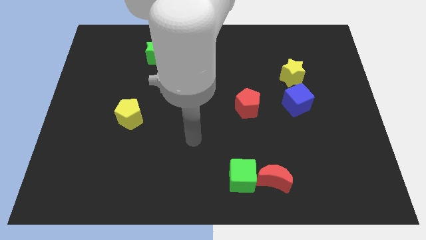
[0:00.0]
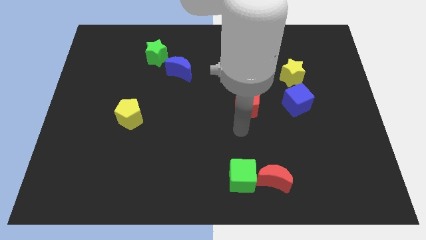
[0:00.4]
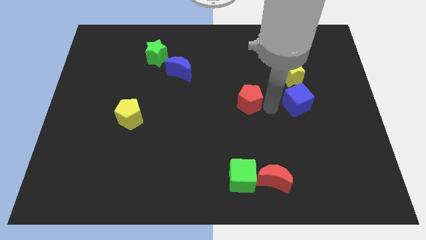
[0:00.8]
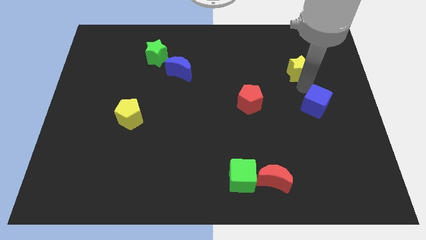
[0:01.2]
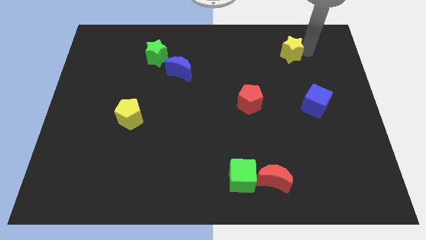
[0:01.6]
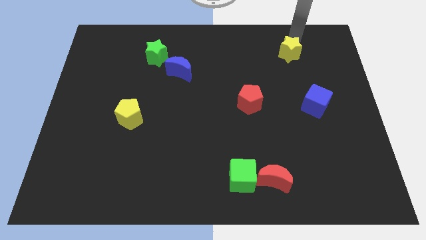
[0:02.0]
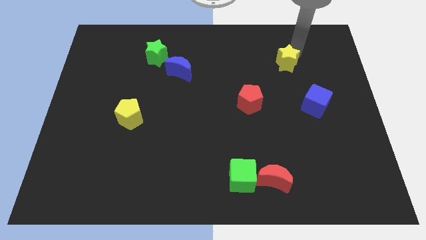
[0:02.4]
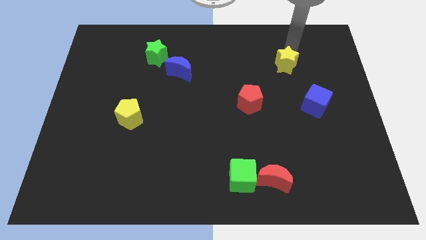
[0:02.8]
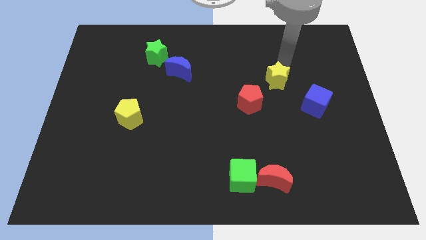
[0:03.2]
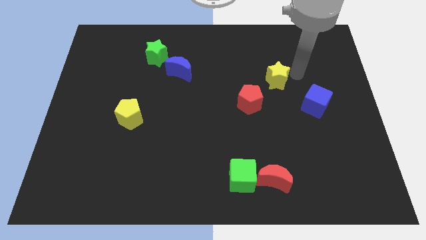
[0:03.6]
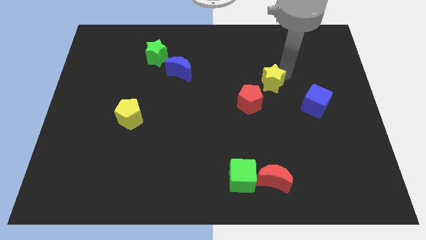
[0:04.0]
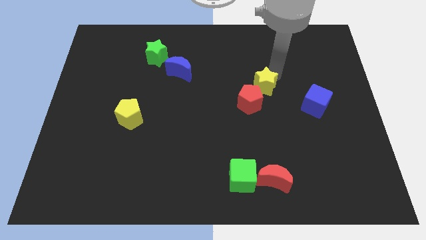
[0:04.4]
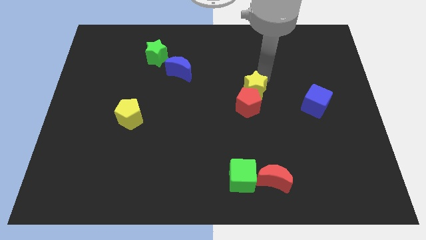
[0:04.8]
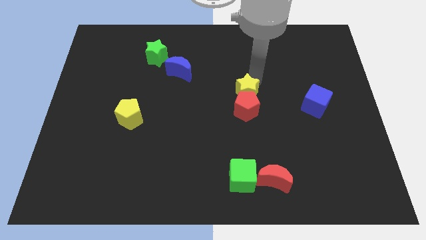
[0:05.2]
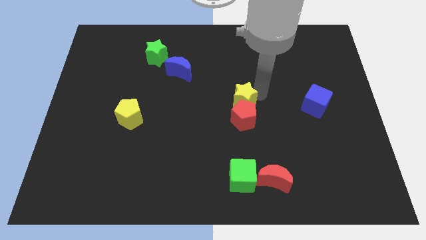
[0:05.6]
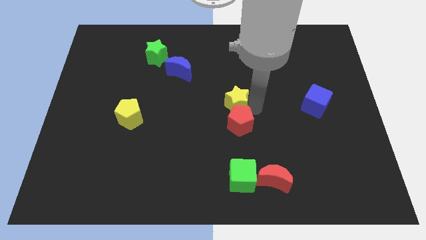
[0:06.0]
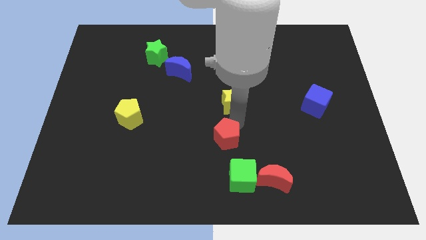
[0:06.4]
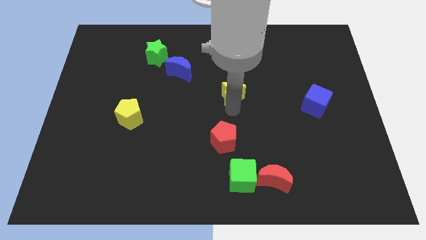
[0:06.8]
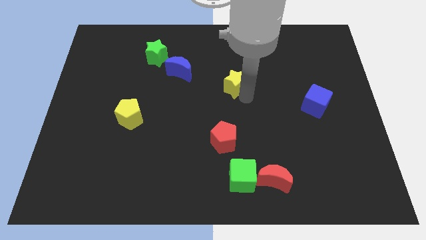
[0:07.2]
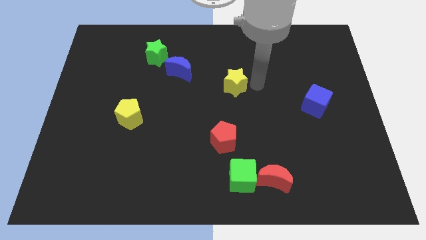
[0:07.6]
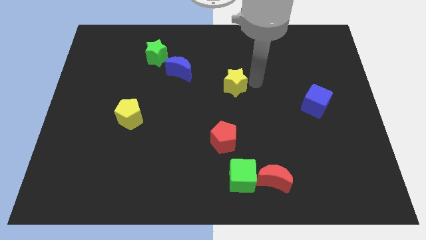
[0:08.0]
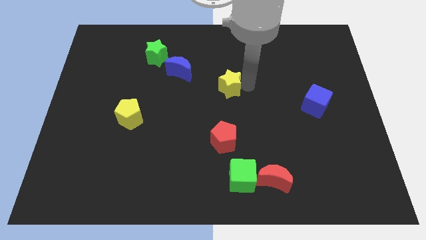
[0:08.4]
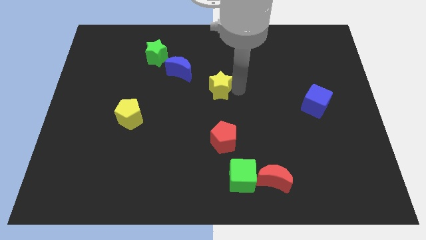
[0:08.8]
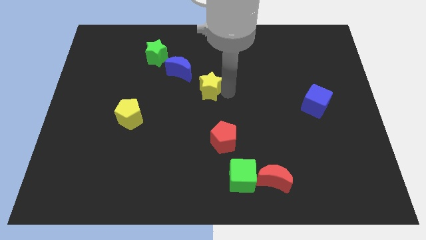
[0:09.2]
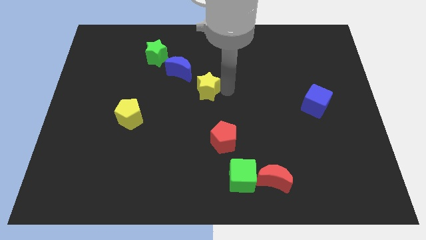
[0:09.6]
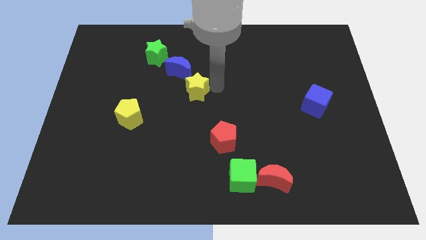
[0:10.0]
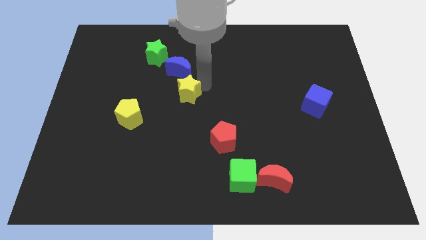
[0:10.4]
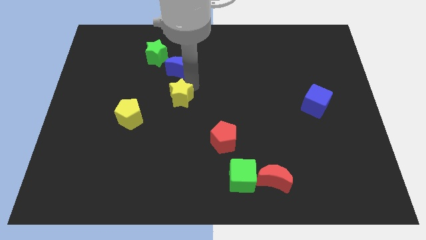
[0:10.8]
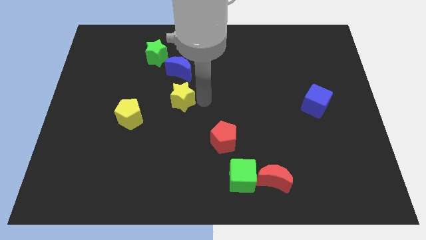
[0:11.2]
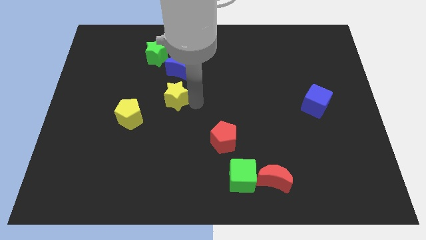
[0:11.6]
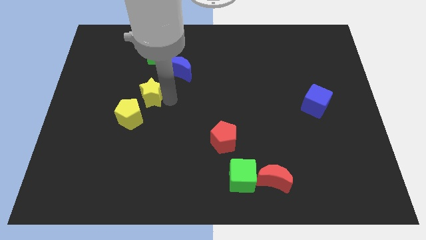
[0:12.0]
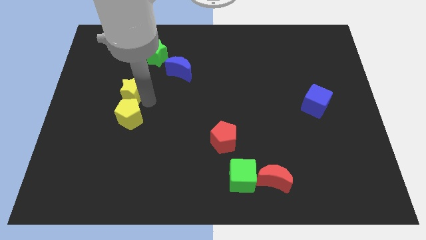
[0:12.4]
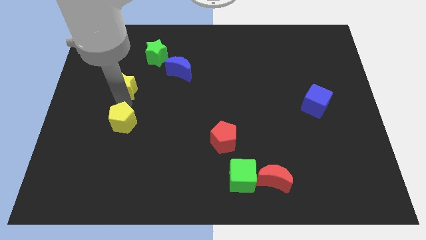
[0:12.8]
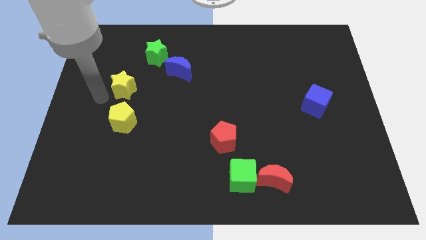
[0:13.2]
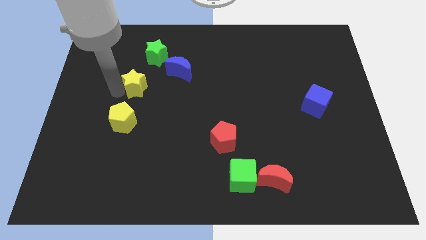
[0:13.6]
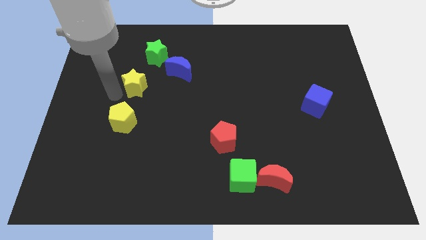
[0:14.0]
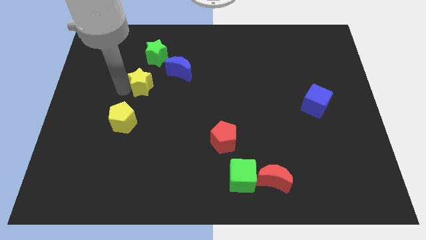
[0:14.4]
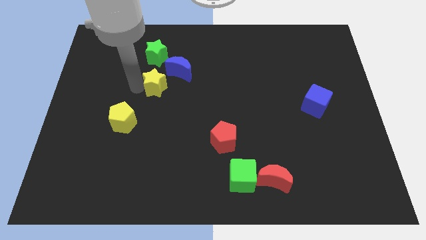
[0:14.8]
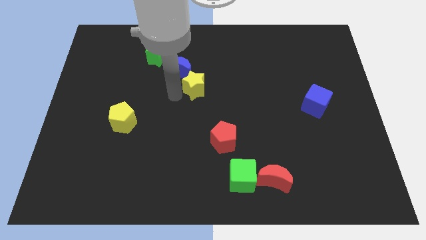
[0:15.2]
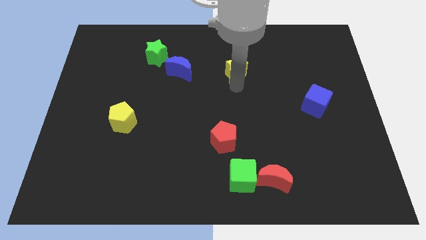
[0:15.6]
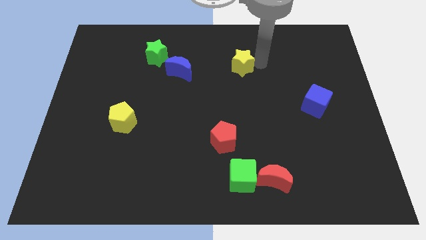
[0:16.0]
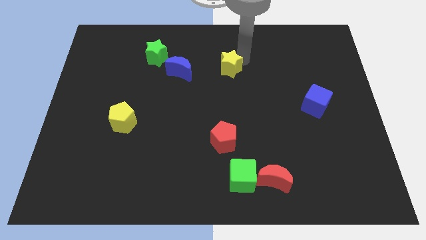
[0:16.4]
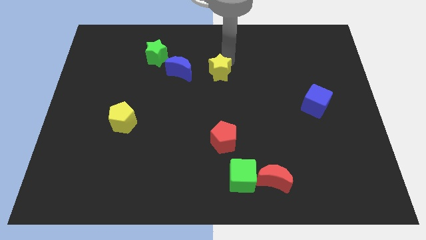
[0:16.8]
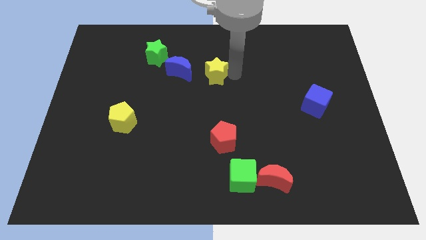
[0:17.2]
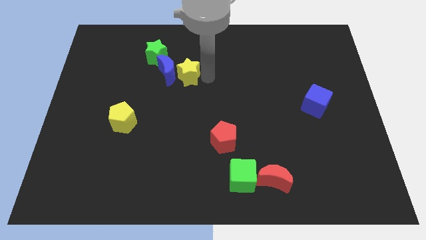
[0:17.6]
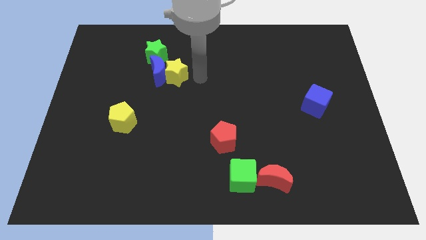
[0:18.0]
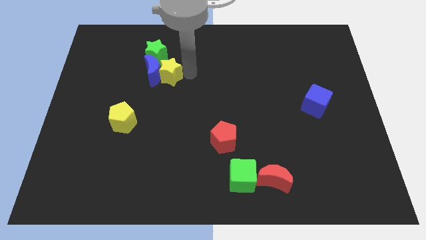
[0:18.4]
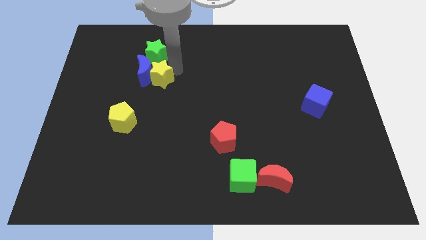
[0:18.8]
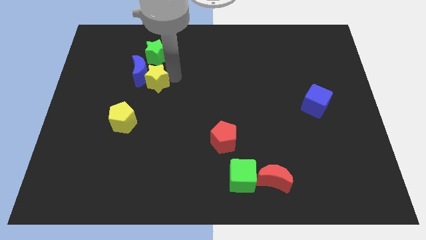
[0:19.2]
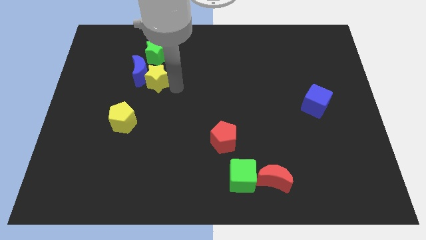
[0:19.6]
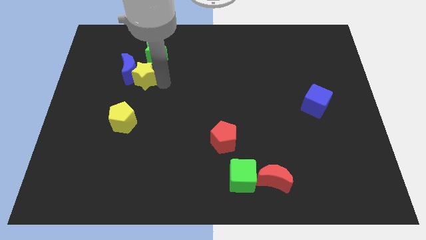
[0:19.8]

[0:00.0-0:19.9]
push the yellow star diagonally down and to the left of the green star

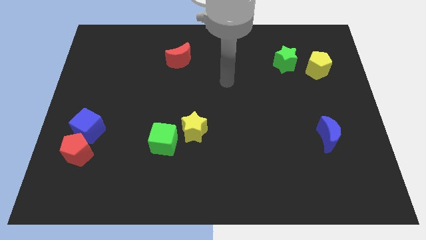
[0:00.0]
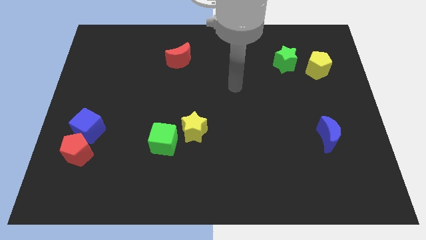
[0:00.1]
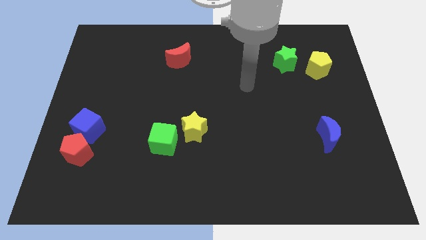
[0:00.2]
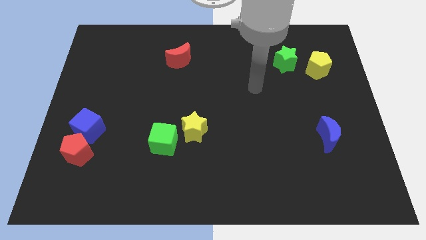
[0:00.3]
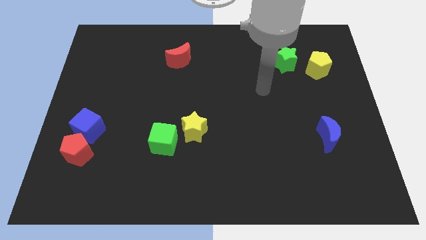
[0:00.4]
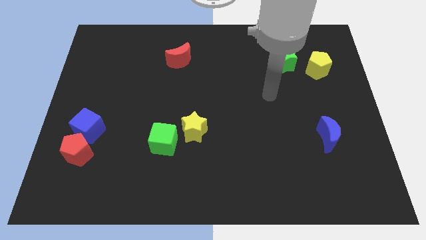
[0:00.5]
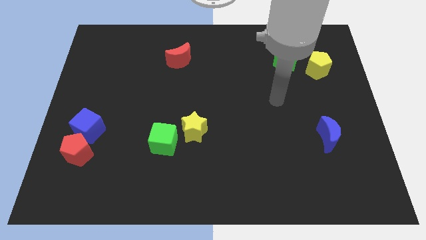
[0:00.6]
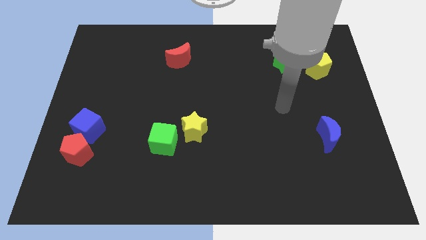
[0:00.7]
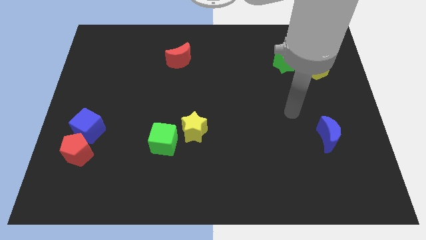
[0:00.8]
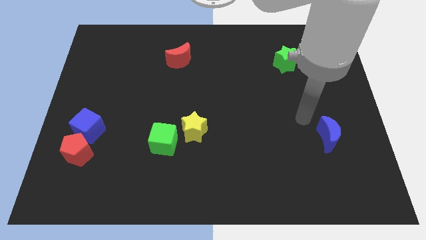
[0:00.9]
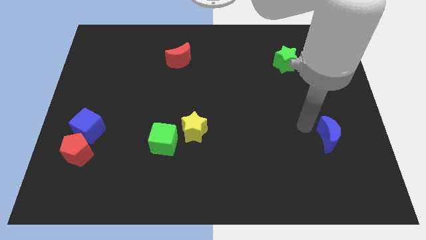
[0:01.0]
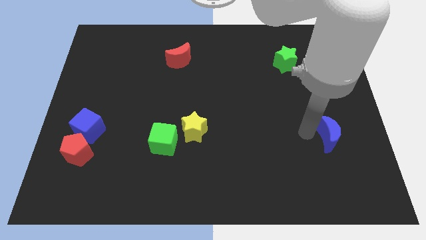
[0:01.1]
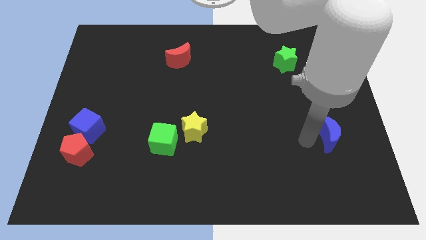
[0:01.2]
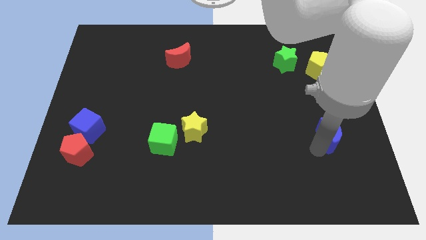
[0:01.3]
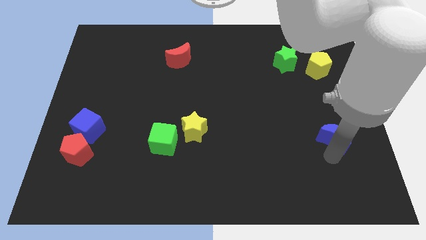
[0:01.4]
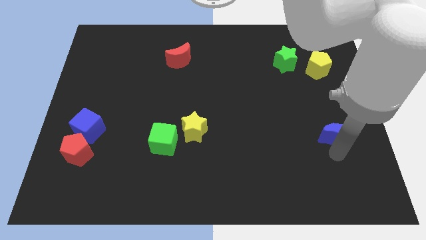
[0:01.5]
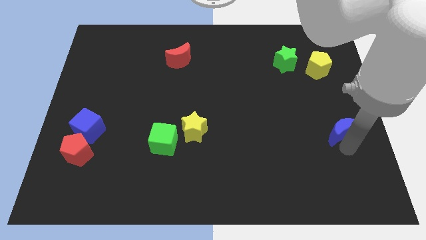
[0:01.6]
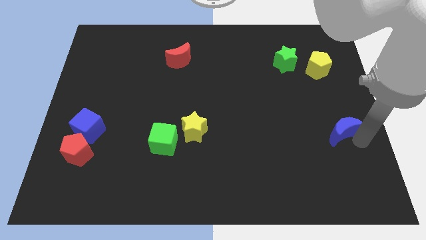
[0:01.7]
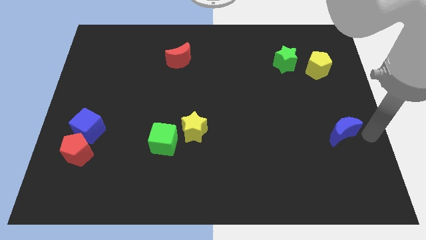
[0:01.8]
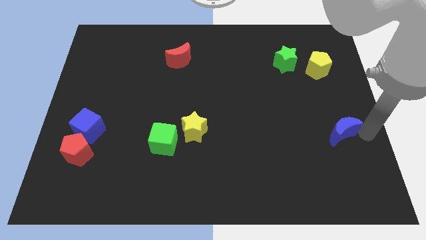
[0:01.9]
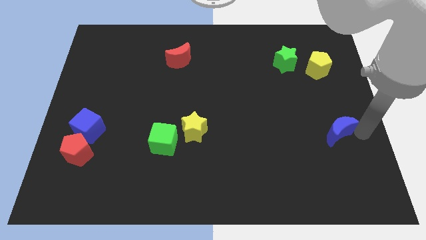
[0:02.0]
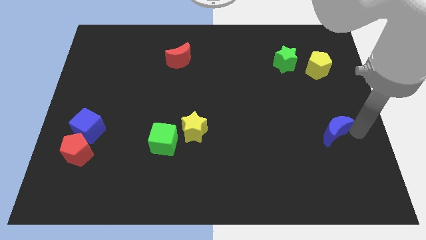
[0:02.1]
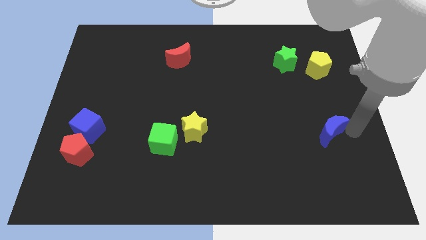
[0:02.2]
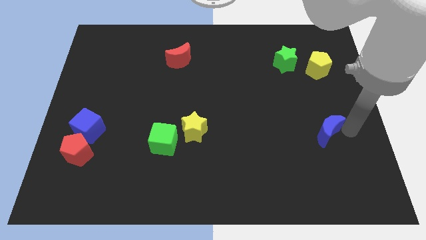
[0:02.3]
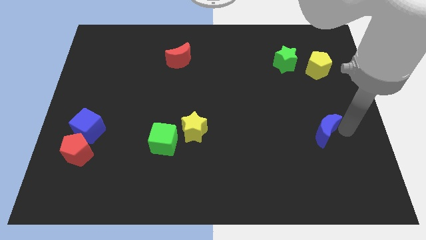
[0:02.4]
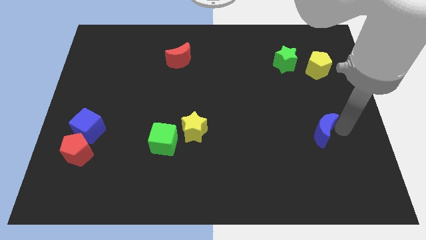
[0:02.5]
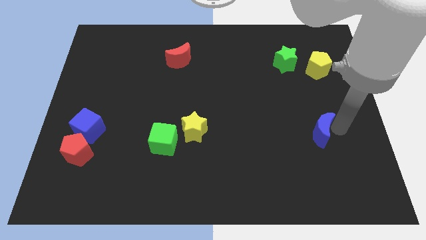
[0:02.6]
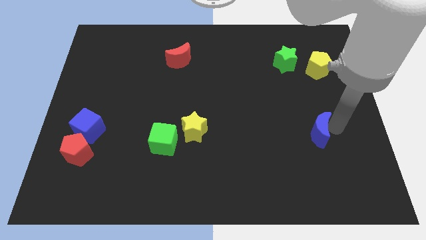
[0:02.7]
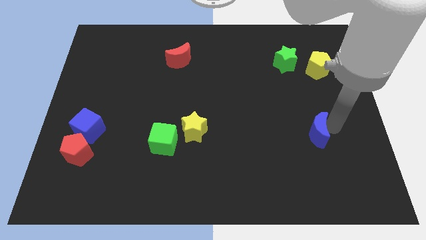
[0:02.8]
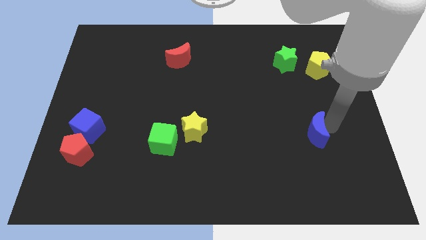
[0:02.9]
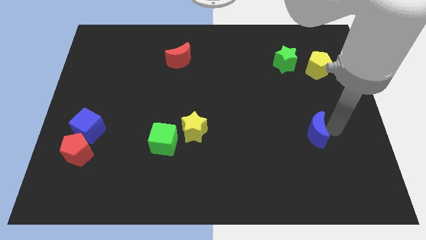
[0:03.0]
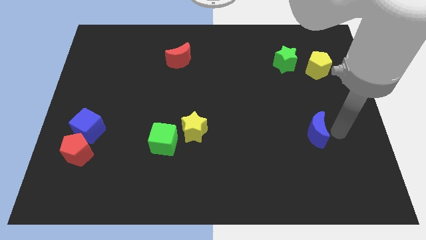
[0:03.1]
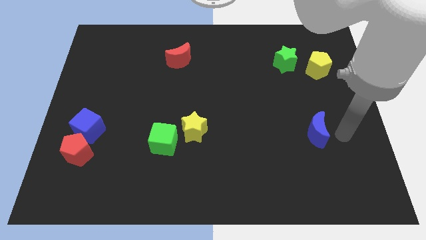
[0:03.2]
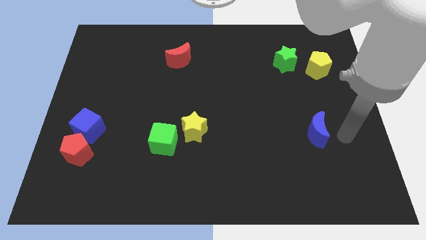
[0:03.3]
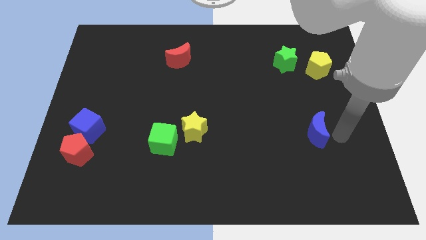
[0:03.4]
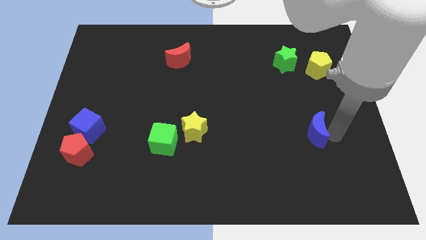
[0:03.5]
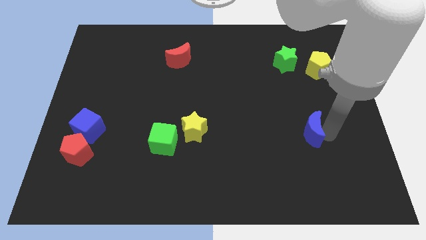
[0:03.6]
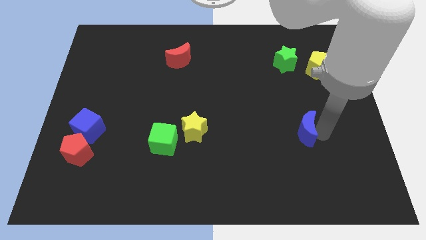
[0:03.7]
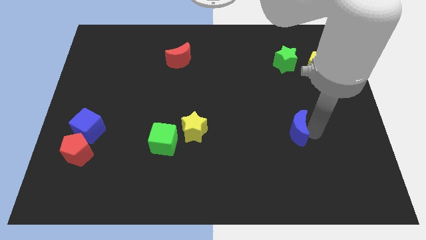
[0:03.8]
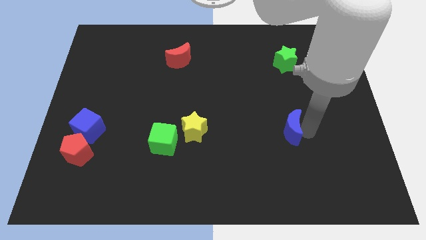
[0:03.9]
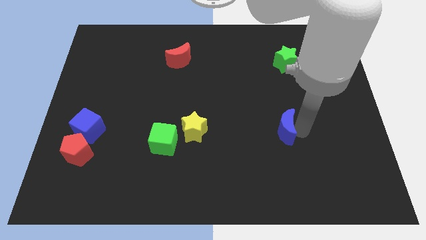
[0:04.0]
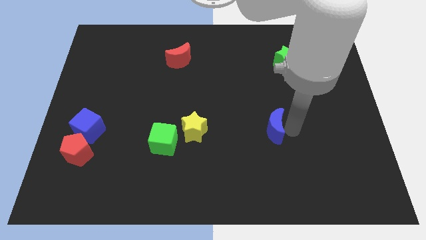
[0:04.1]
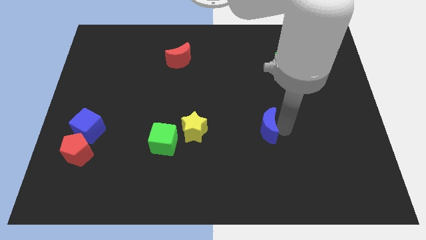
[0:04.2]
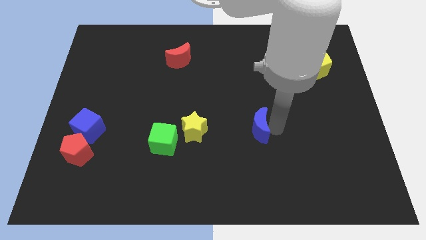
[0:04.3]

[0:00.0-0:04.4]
slide the blue moon to the right side of the yellow star
